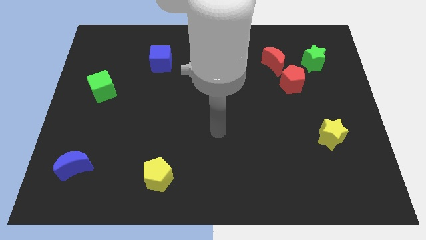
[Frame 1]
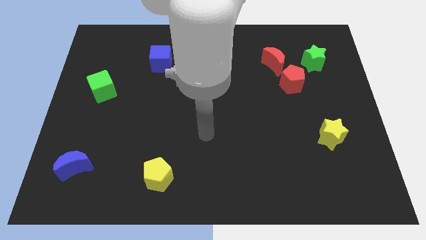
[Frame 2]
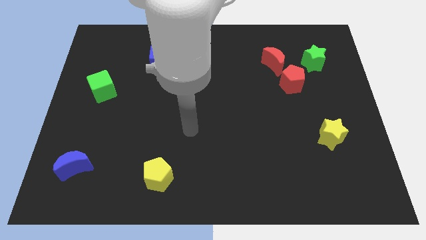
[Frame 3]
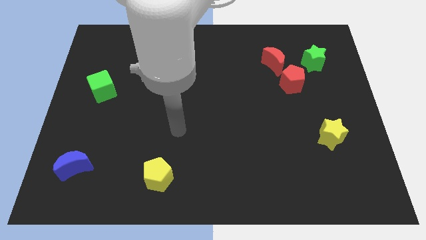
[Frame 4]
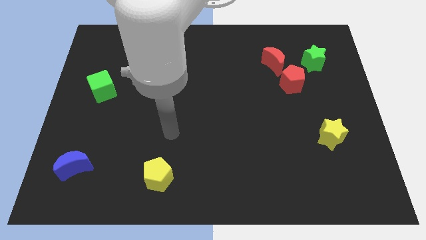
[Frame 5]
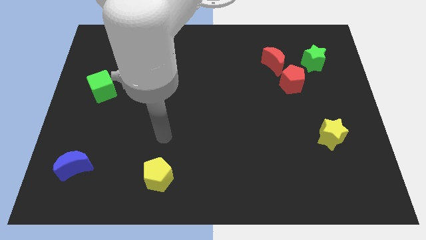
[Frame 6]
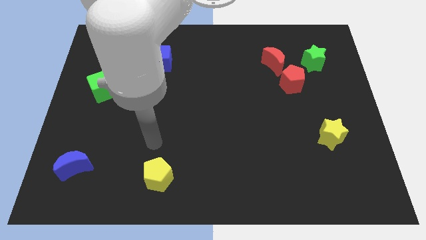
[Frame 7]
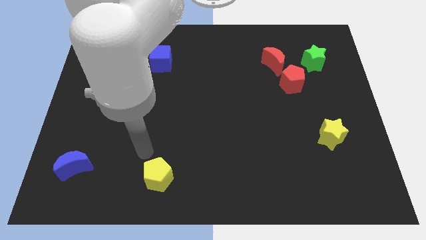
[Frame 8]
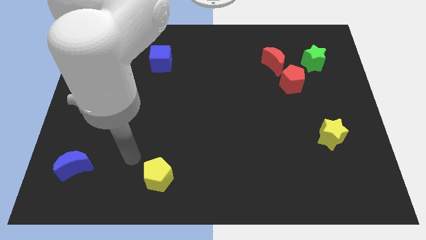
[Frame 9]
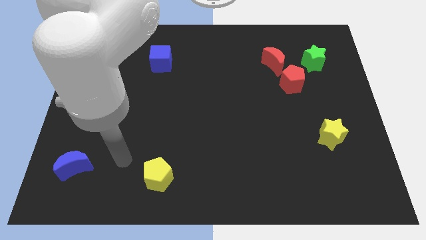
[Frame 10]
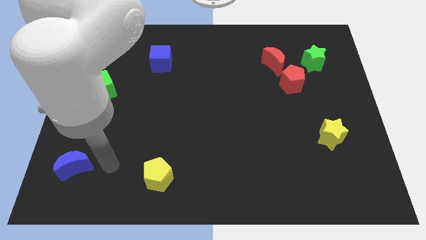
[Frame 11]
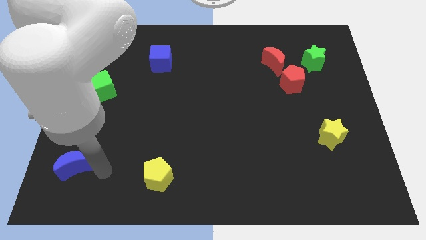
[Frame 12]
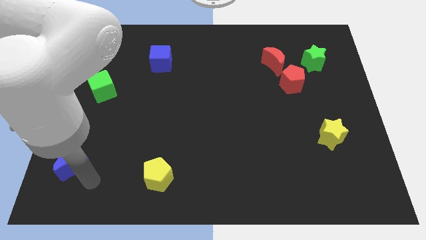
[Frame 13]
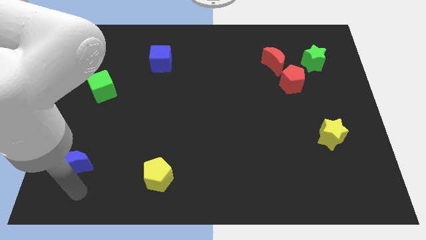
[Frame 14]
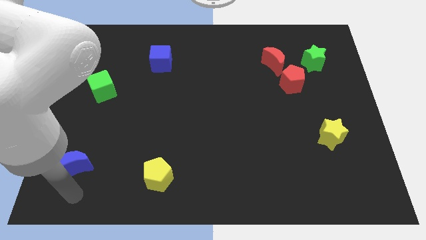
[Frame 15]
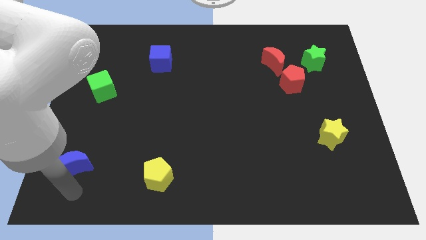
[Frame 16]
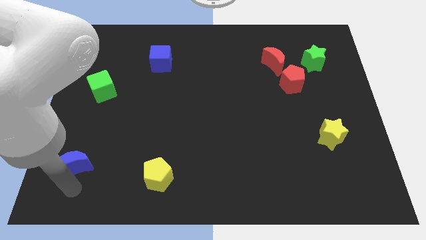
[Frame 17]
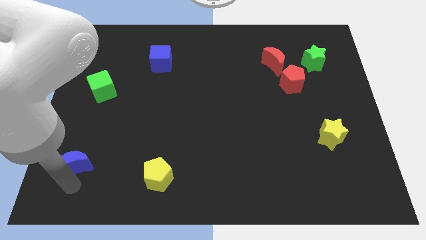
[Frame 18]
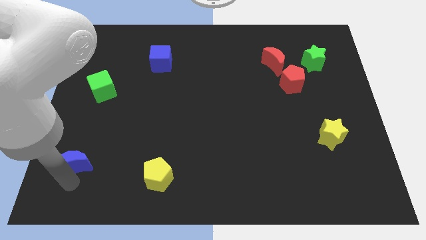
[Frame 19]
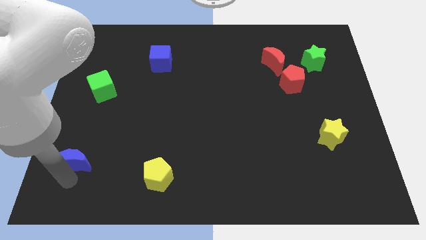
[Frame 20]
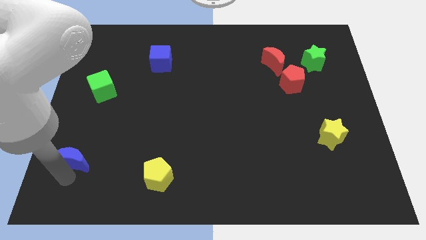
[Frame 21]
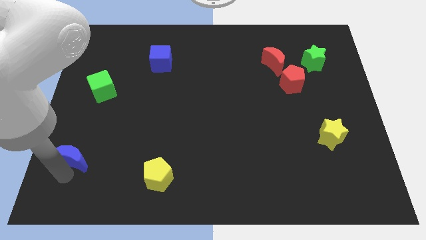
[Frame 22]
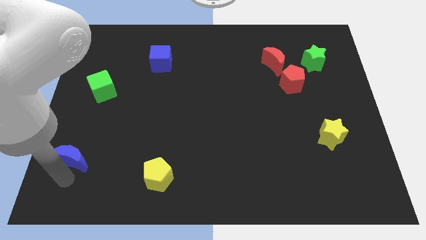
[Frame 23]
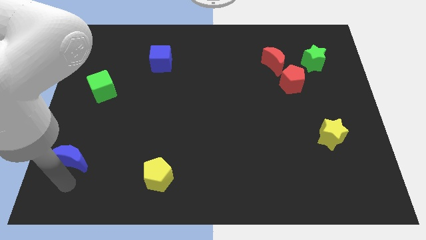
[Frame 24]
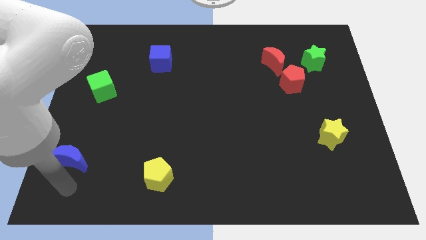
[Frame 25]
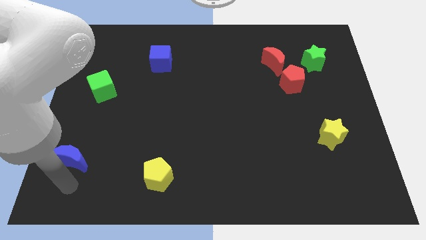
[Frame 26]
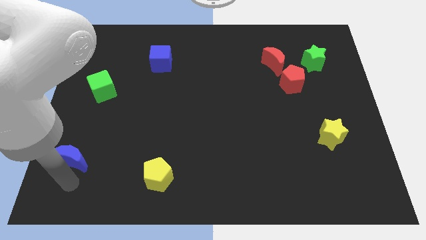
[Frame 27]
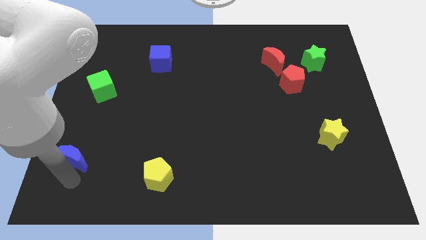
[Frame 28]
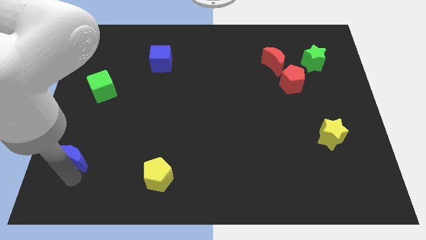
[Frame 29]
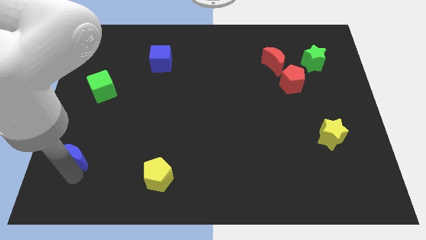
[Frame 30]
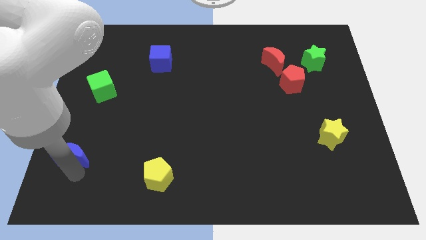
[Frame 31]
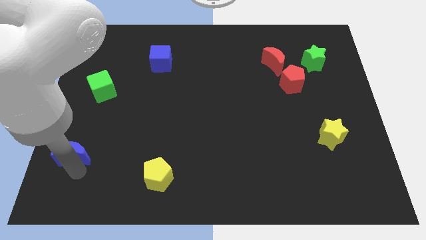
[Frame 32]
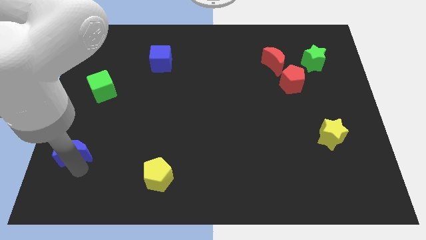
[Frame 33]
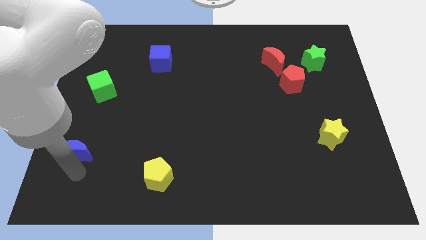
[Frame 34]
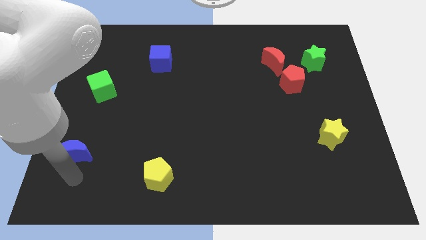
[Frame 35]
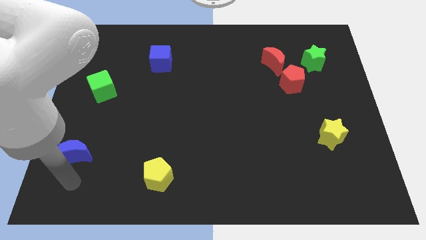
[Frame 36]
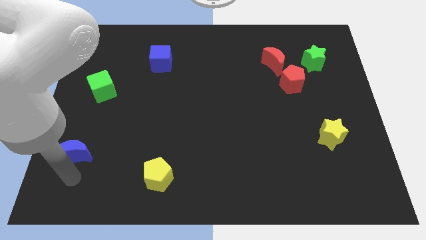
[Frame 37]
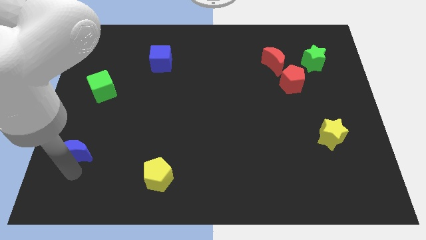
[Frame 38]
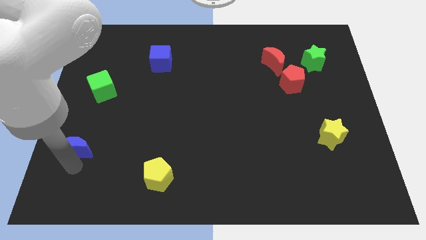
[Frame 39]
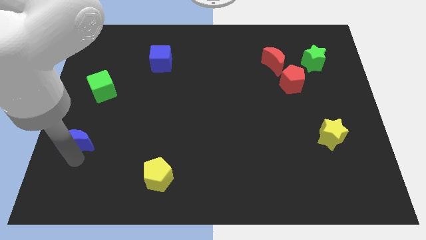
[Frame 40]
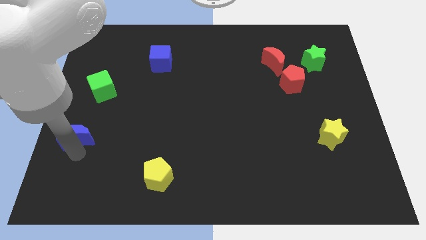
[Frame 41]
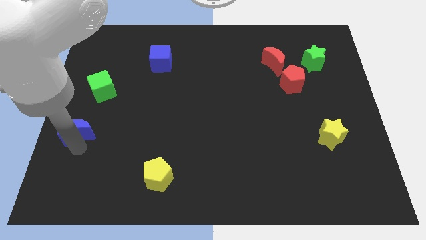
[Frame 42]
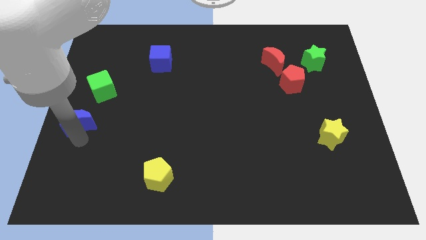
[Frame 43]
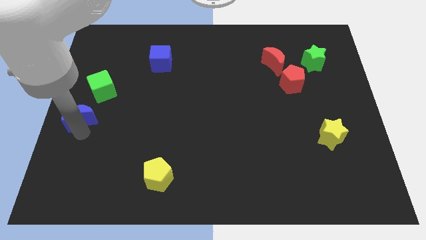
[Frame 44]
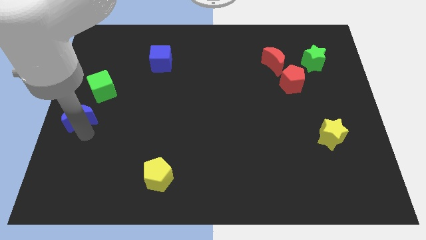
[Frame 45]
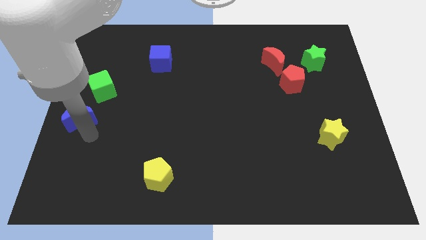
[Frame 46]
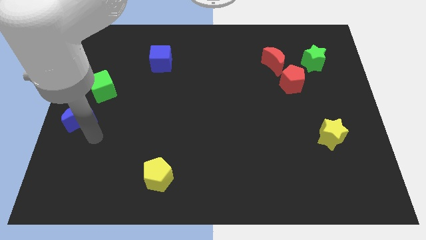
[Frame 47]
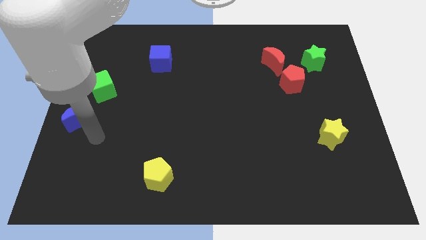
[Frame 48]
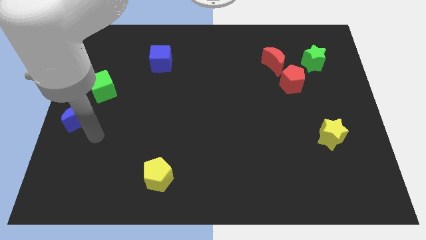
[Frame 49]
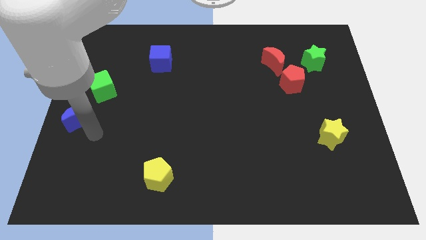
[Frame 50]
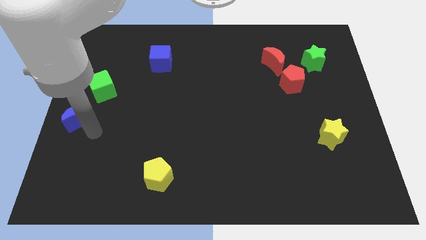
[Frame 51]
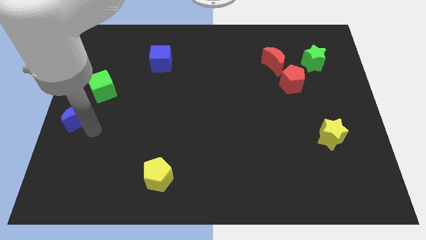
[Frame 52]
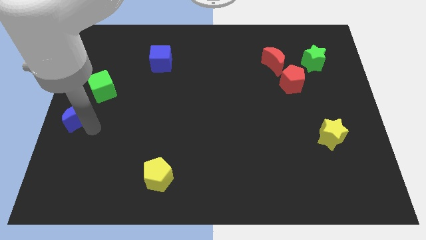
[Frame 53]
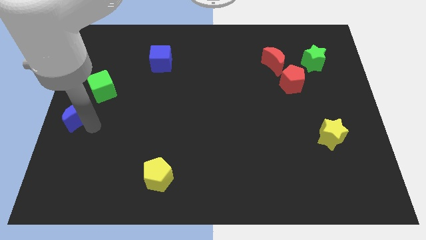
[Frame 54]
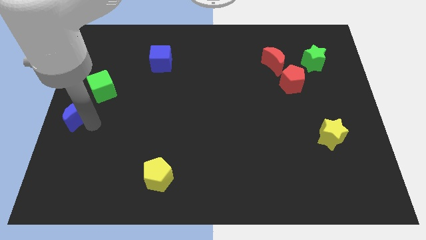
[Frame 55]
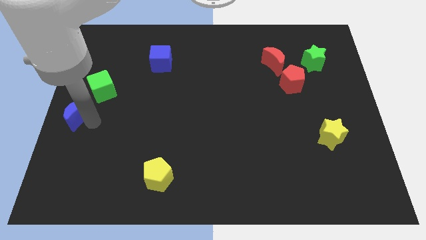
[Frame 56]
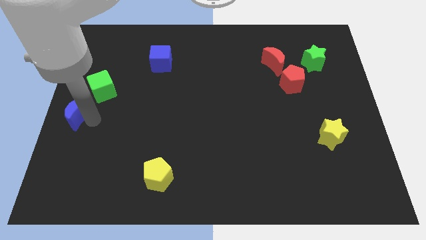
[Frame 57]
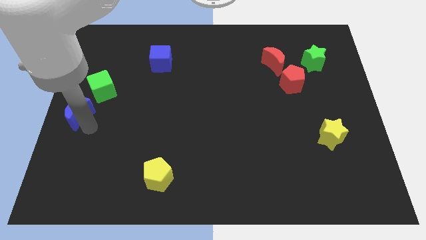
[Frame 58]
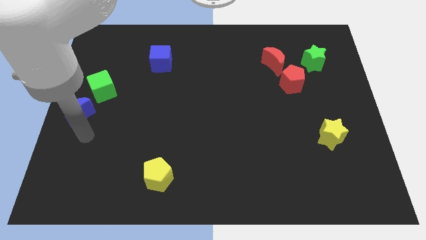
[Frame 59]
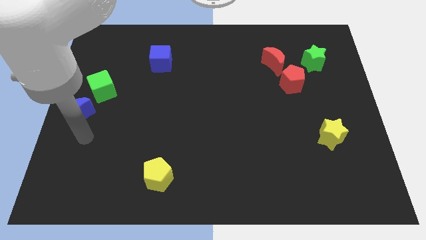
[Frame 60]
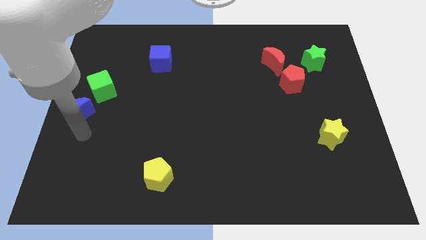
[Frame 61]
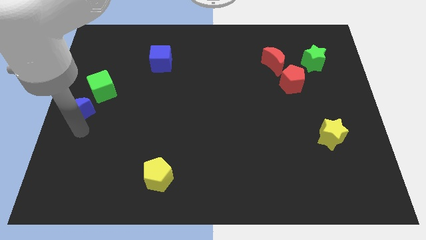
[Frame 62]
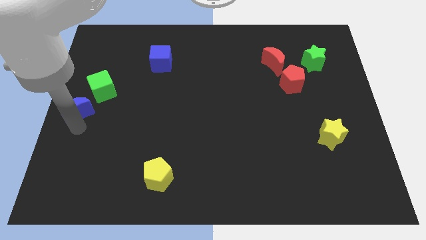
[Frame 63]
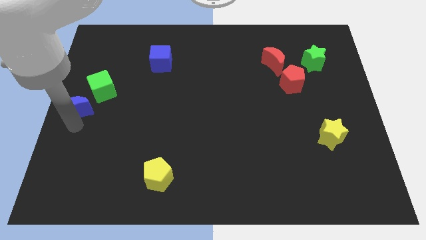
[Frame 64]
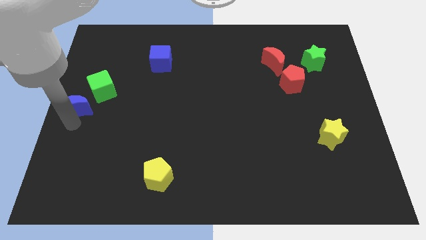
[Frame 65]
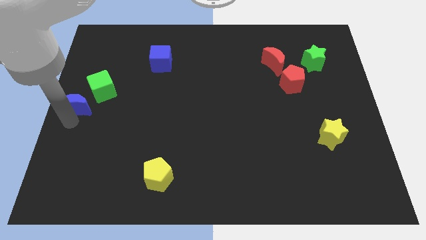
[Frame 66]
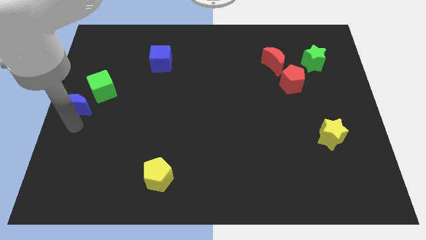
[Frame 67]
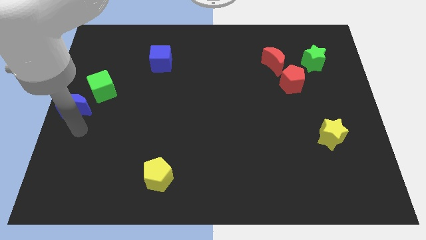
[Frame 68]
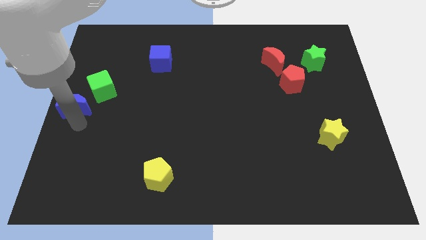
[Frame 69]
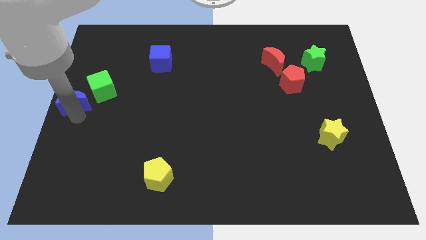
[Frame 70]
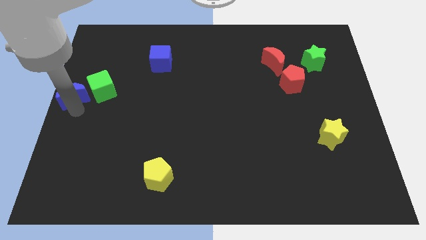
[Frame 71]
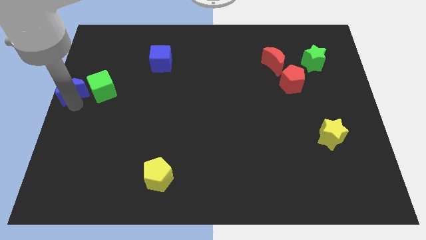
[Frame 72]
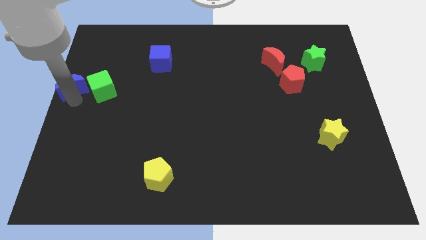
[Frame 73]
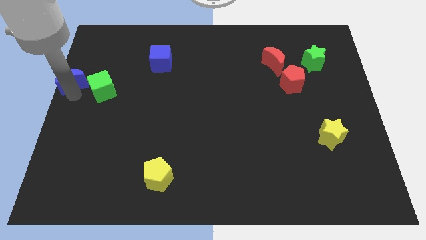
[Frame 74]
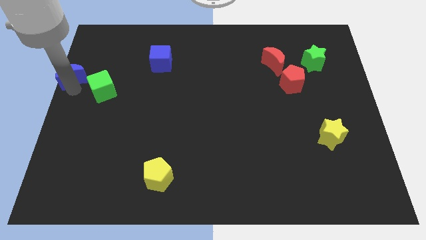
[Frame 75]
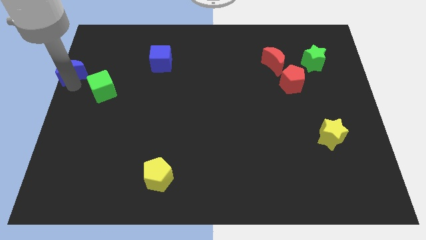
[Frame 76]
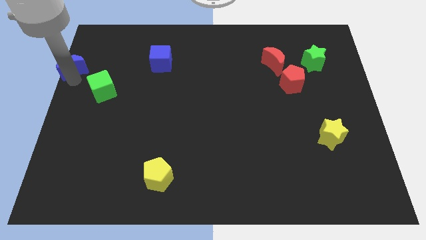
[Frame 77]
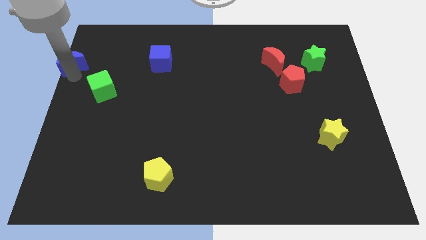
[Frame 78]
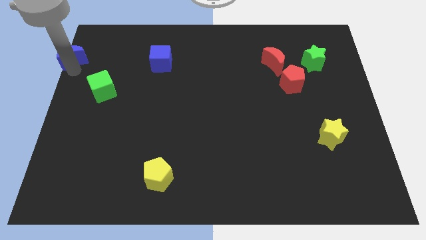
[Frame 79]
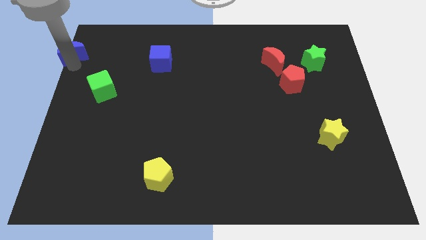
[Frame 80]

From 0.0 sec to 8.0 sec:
put the blue moon to the upper left corner
